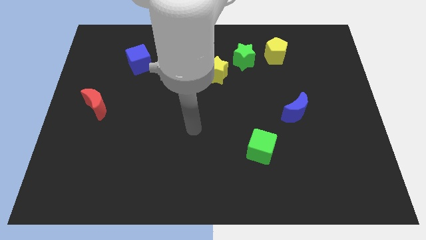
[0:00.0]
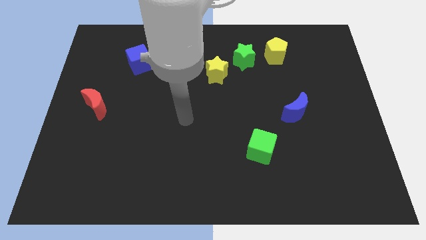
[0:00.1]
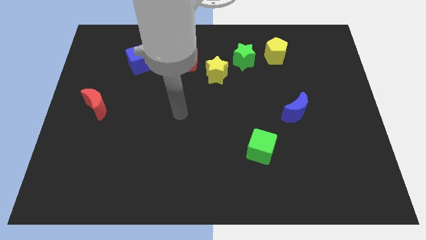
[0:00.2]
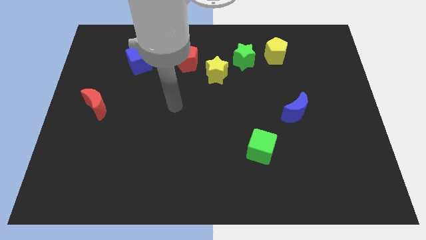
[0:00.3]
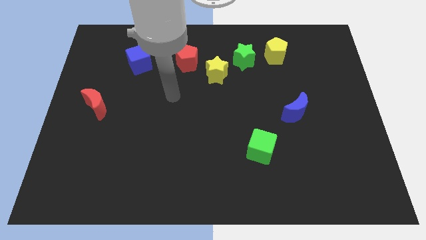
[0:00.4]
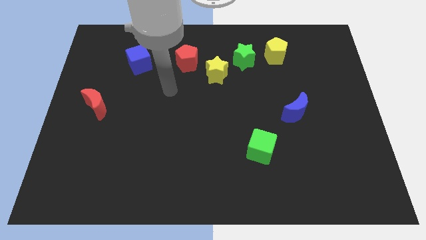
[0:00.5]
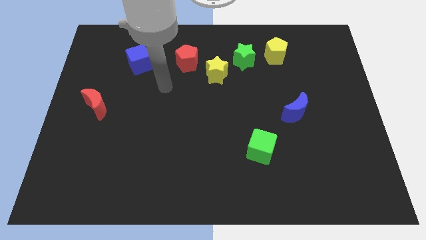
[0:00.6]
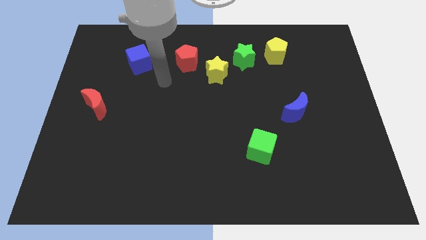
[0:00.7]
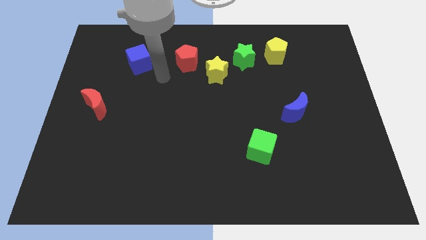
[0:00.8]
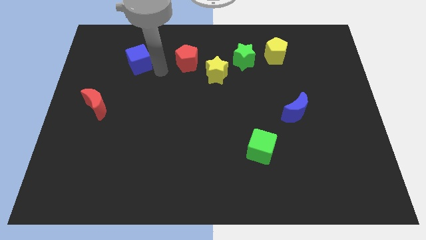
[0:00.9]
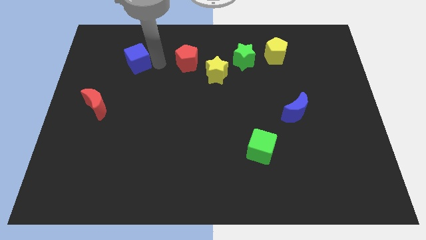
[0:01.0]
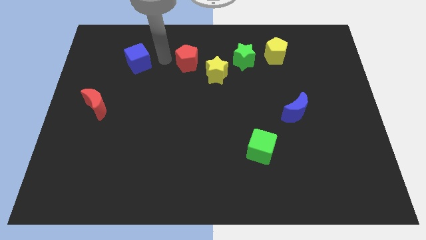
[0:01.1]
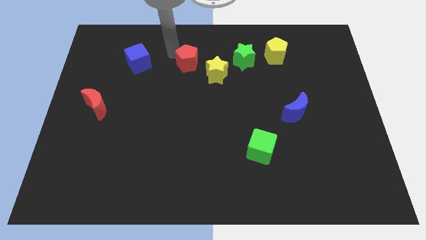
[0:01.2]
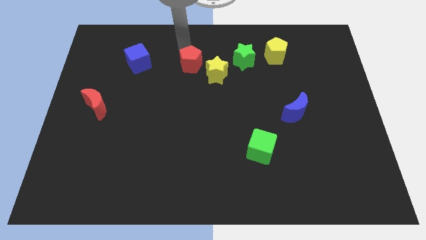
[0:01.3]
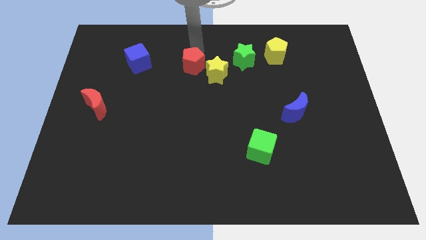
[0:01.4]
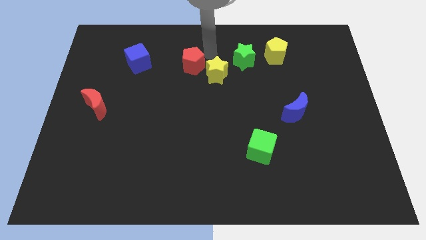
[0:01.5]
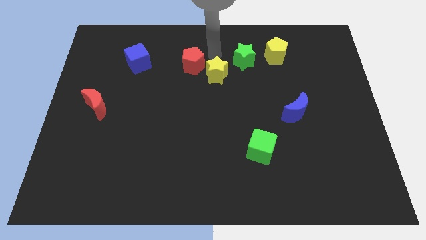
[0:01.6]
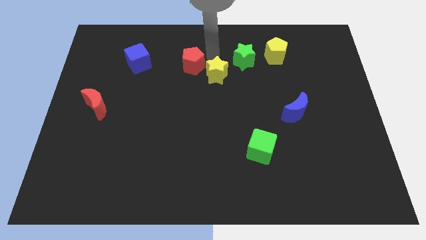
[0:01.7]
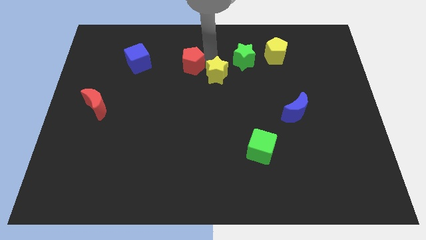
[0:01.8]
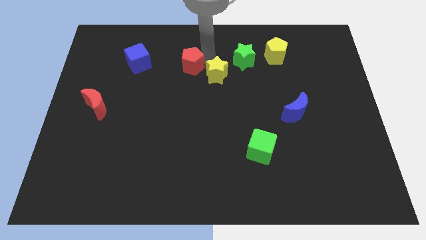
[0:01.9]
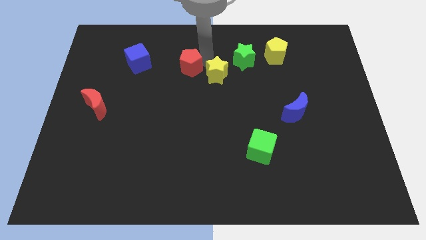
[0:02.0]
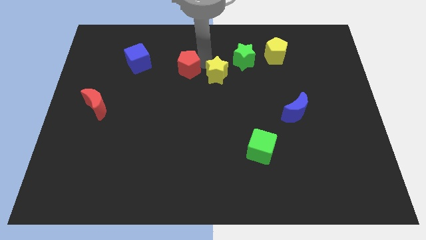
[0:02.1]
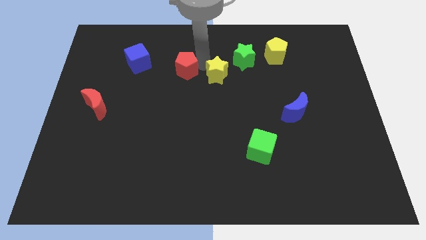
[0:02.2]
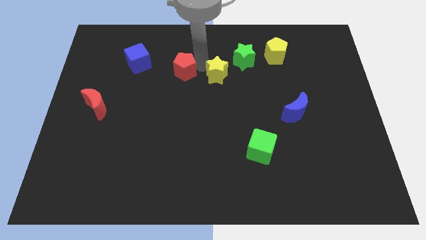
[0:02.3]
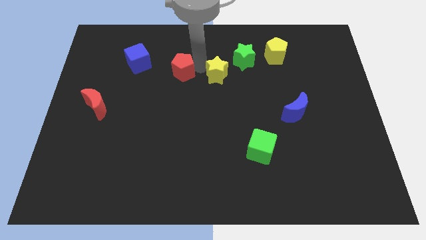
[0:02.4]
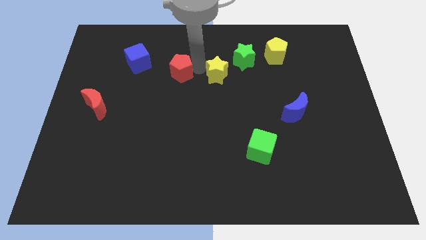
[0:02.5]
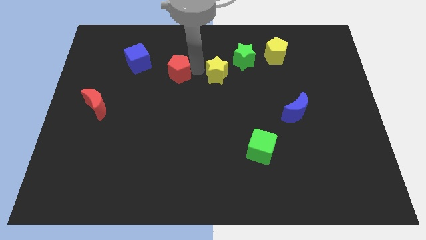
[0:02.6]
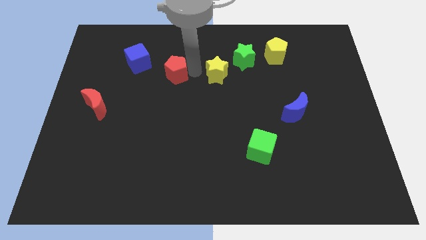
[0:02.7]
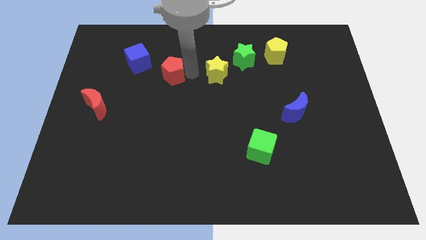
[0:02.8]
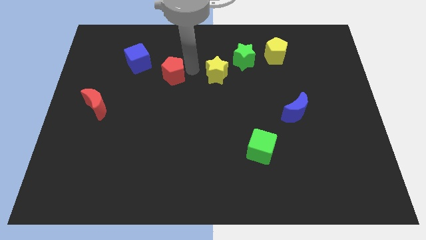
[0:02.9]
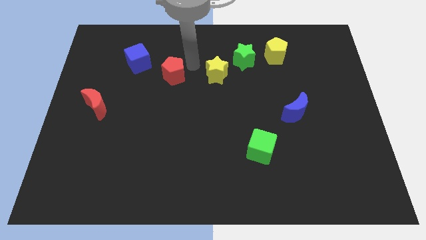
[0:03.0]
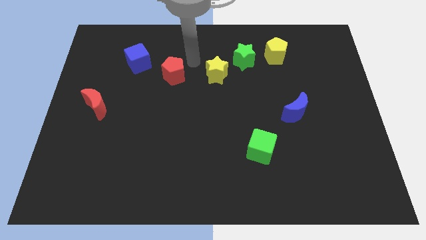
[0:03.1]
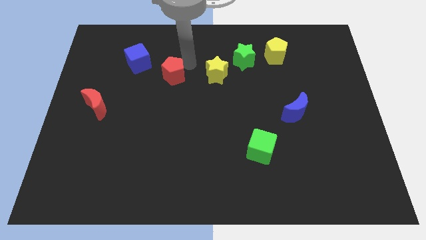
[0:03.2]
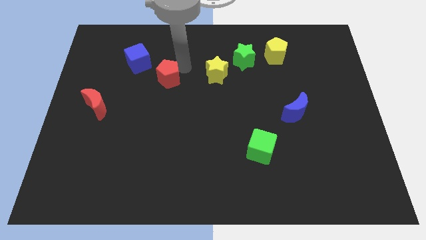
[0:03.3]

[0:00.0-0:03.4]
slide the red pentagon a little bit down and left diagonally

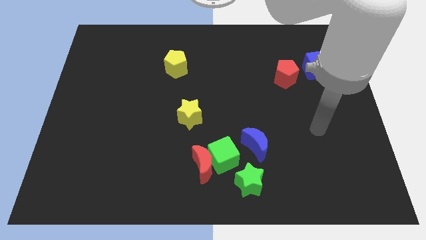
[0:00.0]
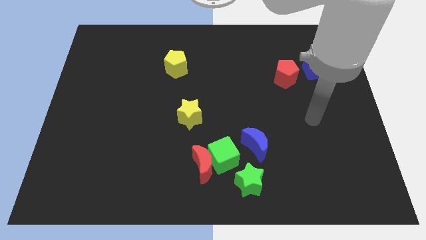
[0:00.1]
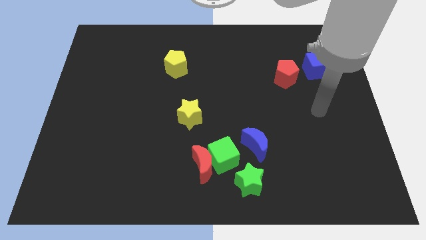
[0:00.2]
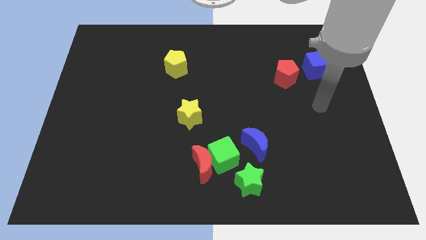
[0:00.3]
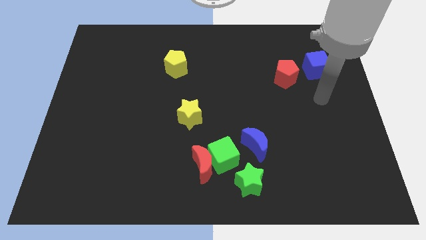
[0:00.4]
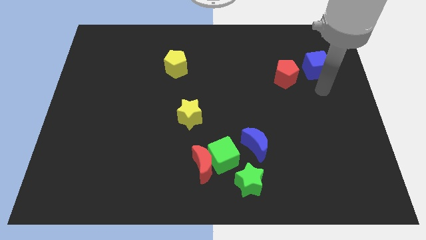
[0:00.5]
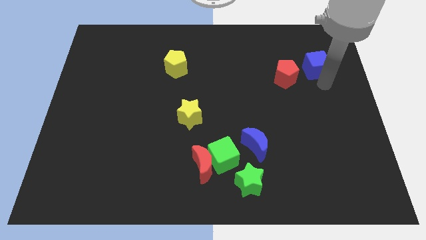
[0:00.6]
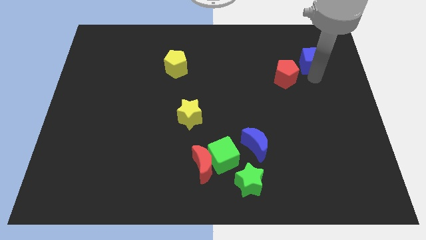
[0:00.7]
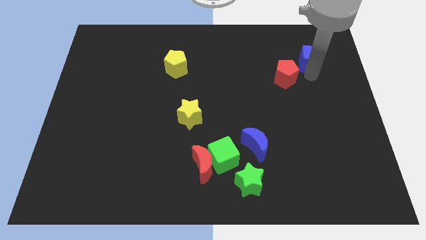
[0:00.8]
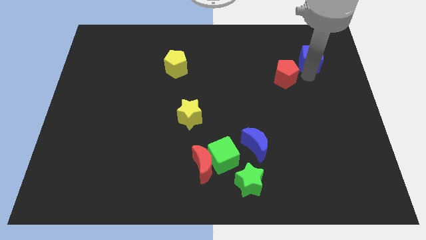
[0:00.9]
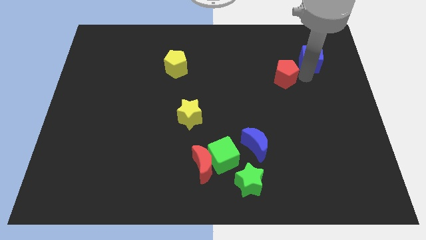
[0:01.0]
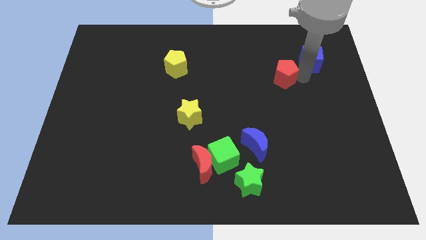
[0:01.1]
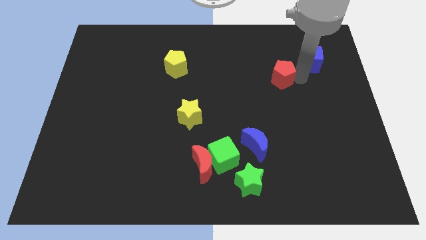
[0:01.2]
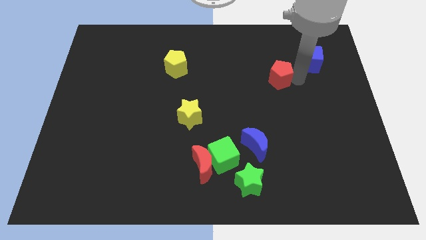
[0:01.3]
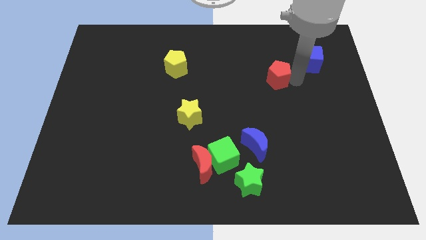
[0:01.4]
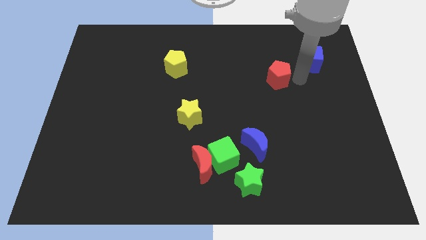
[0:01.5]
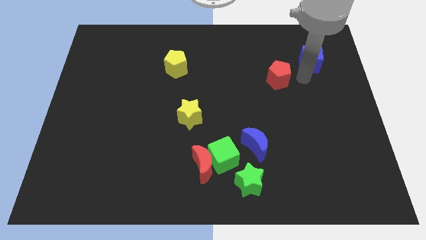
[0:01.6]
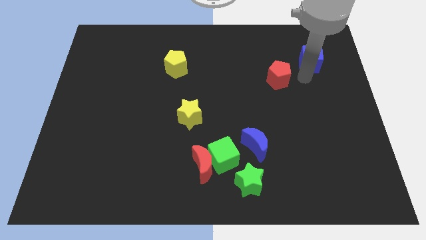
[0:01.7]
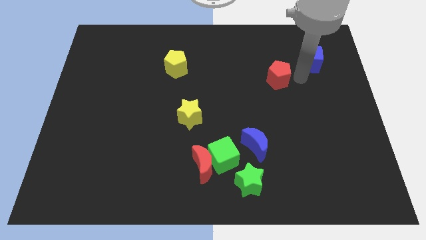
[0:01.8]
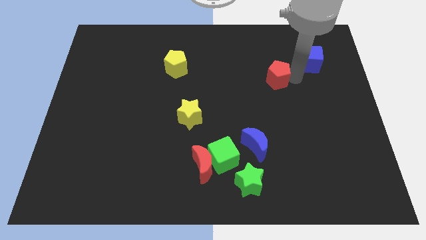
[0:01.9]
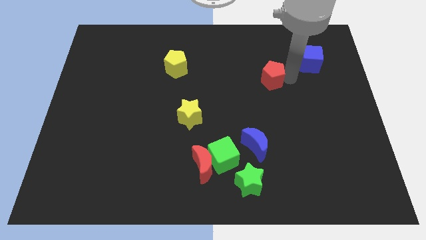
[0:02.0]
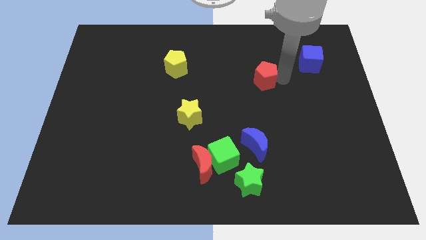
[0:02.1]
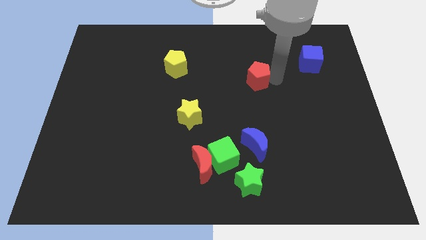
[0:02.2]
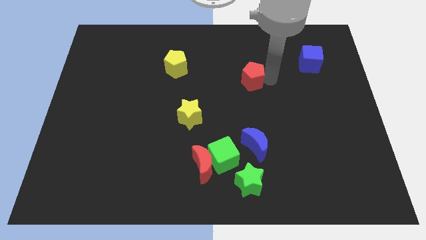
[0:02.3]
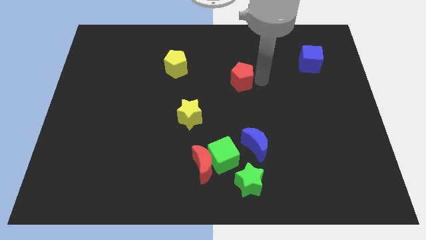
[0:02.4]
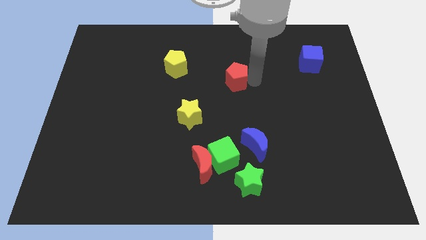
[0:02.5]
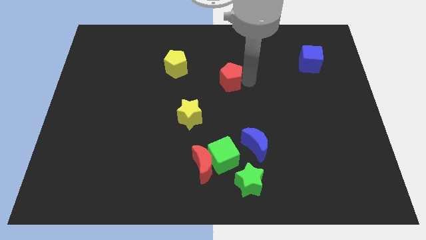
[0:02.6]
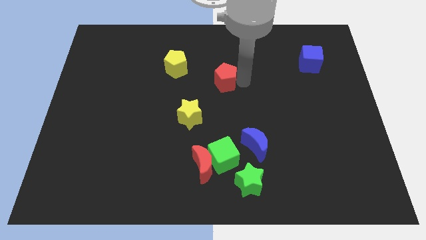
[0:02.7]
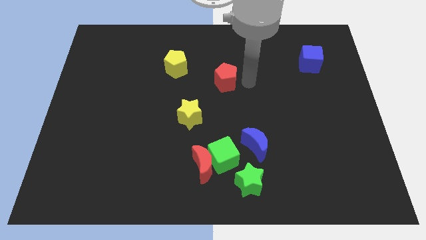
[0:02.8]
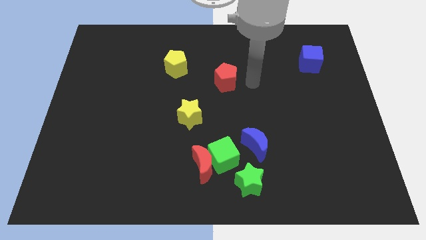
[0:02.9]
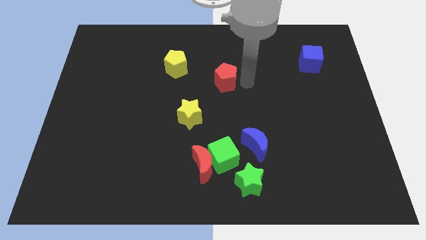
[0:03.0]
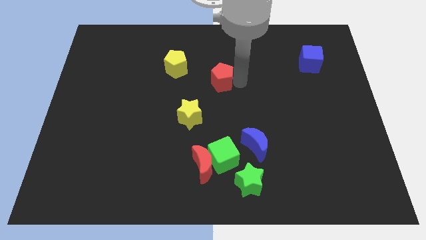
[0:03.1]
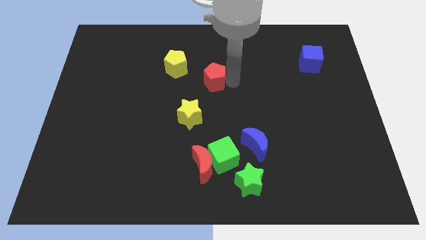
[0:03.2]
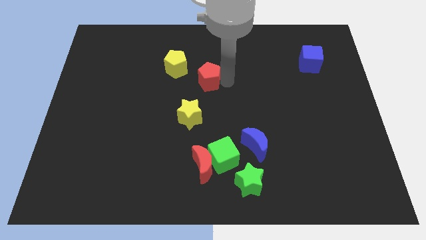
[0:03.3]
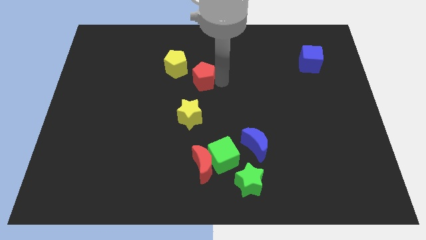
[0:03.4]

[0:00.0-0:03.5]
move the red pentagon left

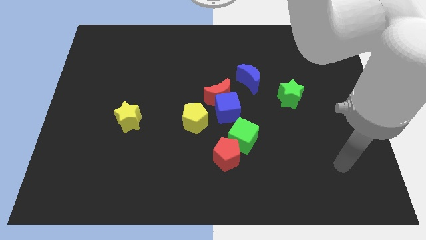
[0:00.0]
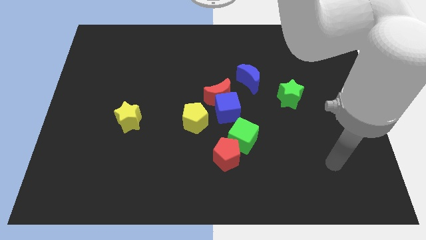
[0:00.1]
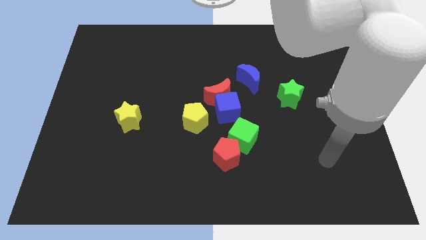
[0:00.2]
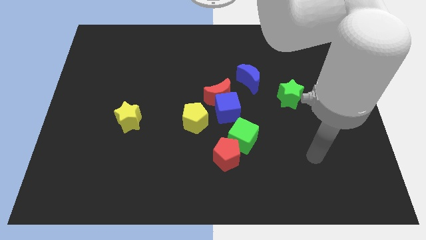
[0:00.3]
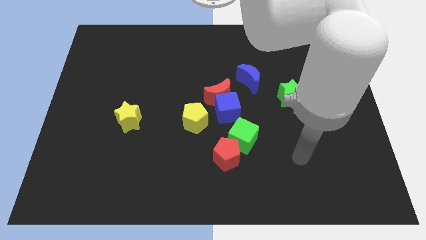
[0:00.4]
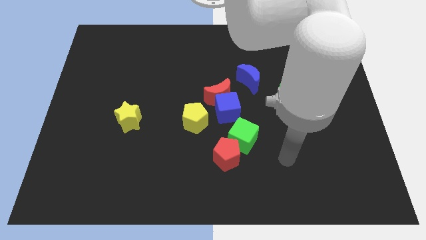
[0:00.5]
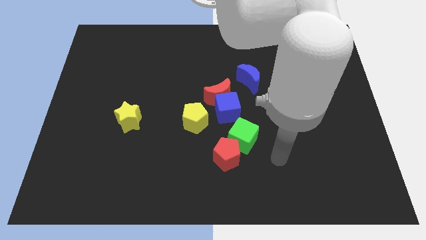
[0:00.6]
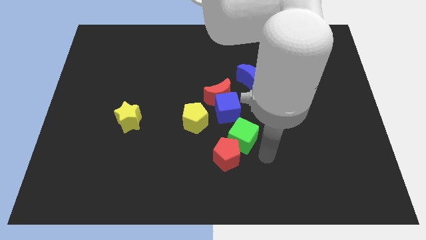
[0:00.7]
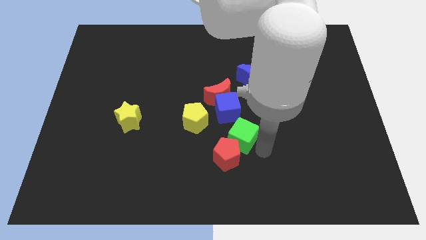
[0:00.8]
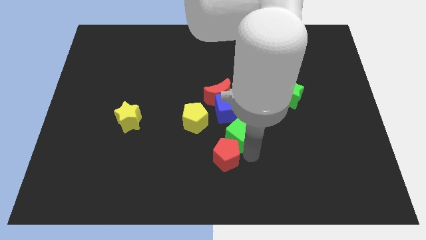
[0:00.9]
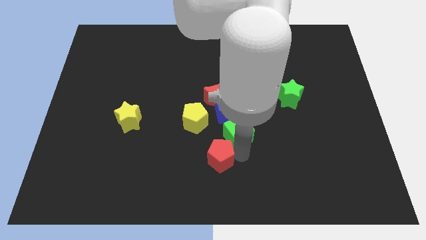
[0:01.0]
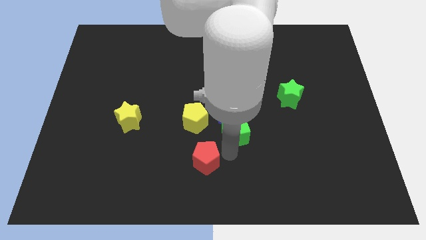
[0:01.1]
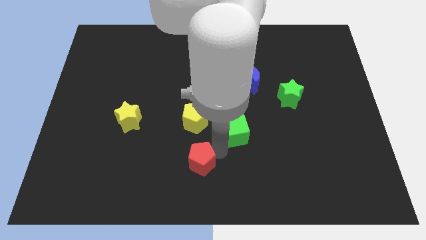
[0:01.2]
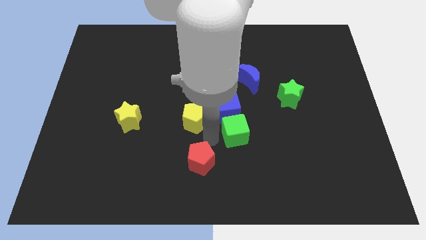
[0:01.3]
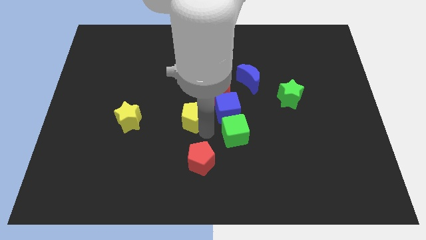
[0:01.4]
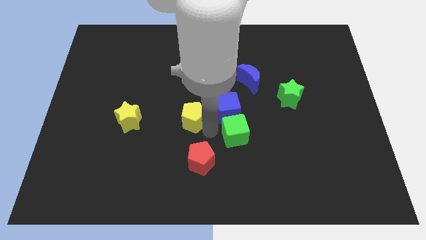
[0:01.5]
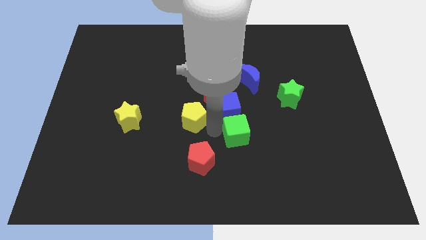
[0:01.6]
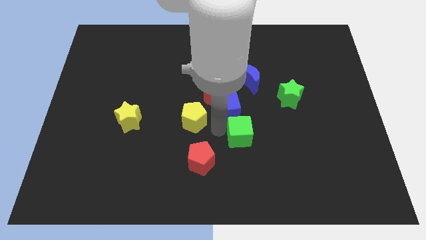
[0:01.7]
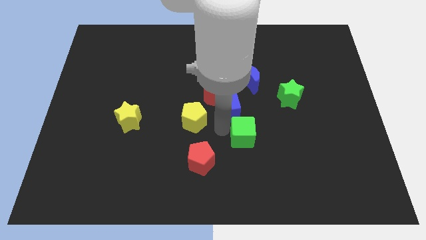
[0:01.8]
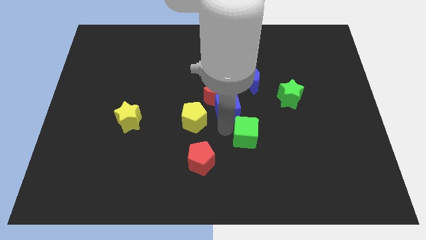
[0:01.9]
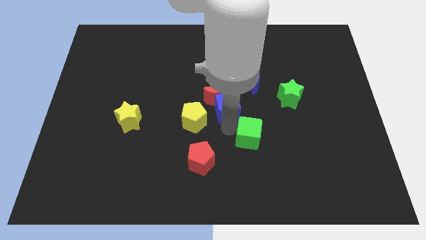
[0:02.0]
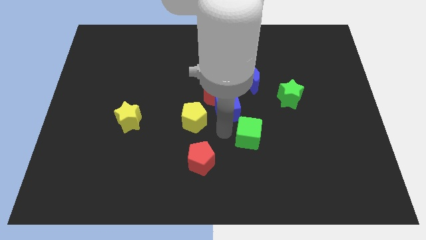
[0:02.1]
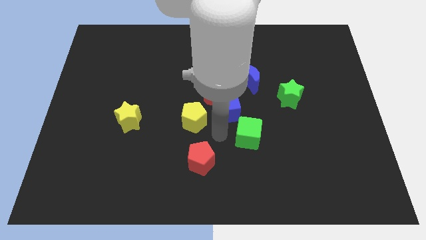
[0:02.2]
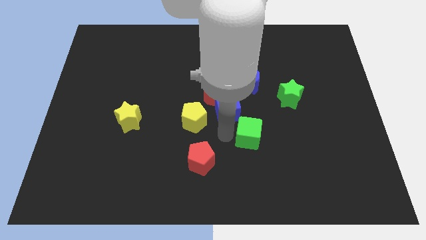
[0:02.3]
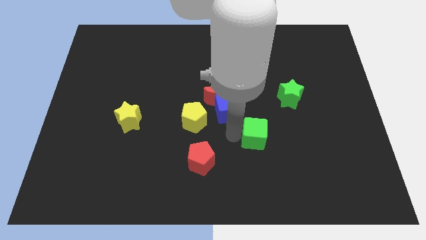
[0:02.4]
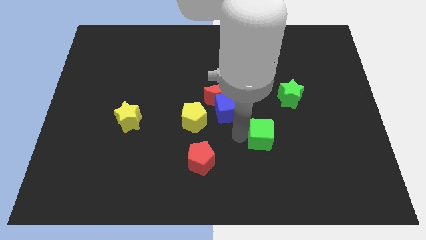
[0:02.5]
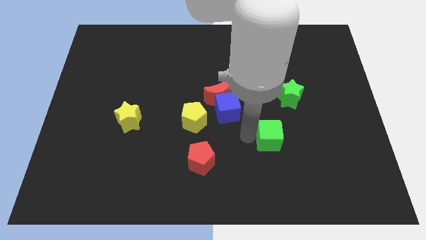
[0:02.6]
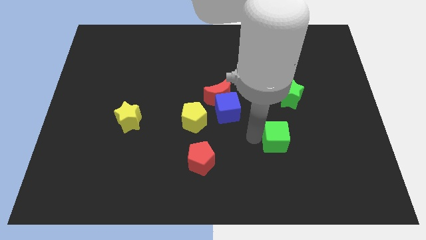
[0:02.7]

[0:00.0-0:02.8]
slightly push the green cube to the right
